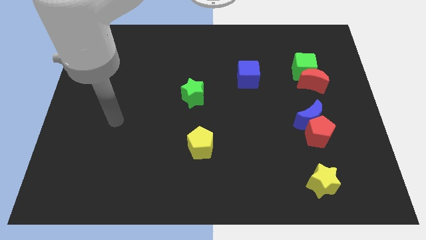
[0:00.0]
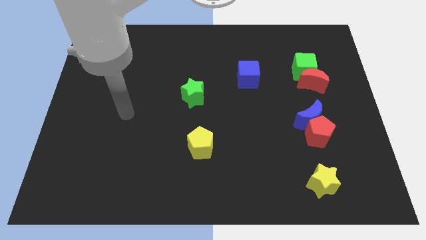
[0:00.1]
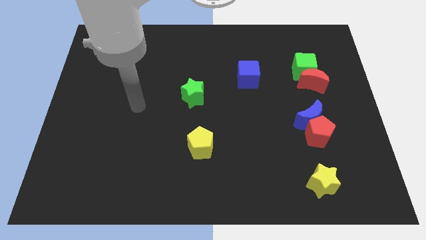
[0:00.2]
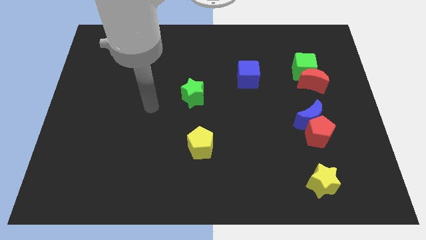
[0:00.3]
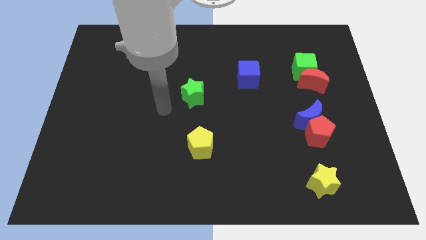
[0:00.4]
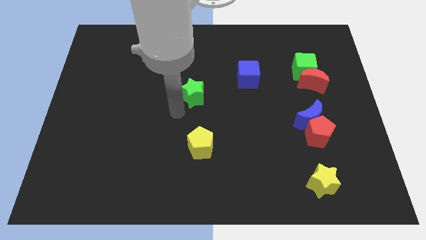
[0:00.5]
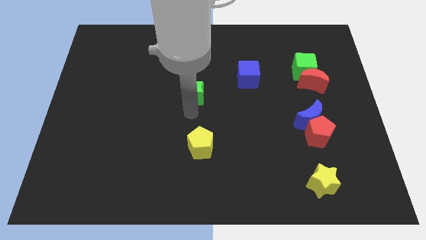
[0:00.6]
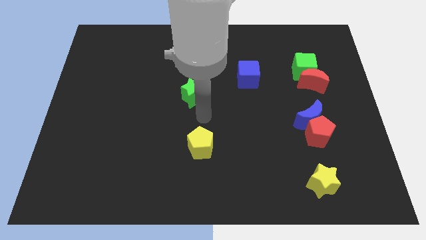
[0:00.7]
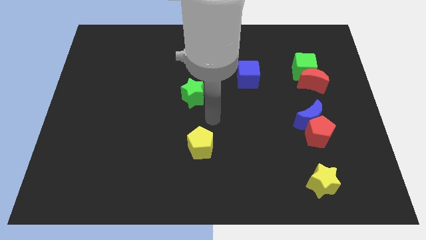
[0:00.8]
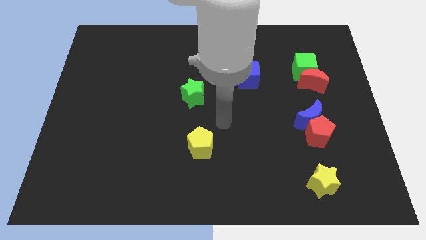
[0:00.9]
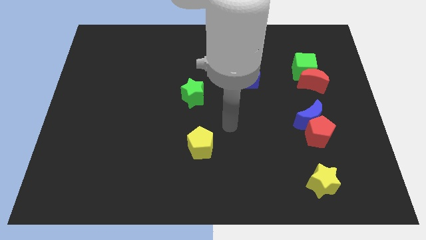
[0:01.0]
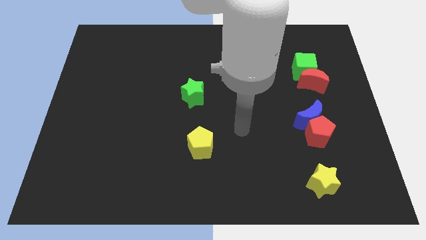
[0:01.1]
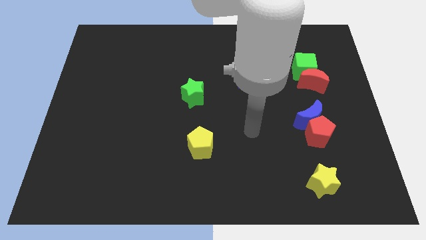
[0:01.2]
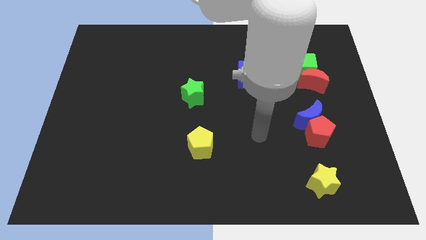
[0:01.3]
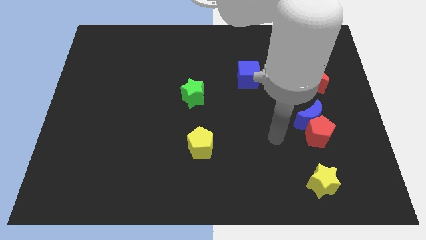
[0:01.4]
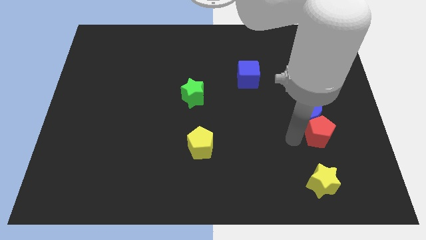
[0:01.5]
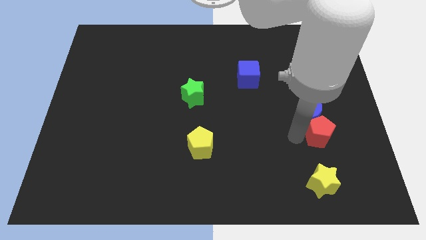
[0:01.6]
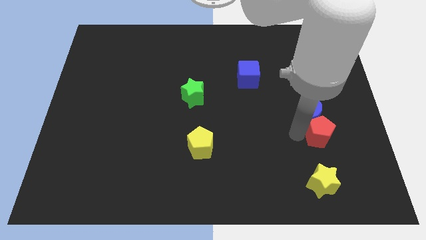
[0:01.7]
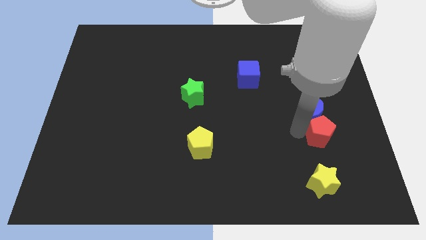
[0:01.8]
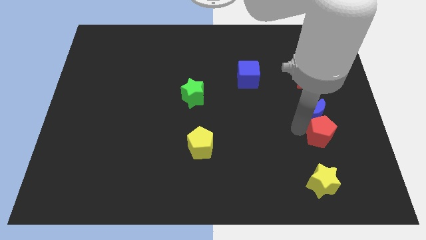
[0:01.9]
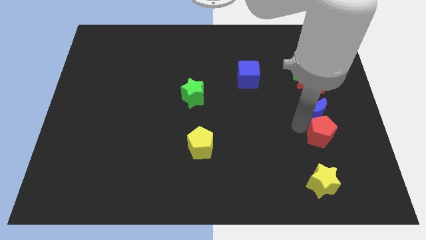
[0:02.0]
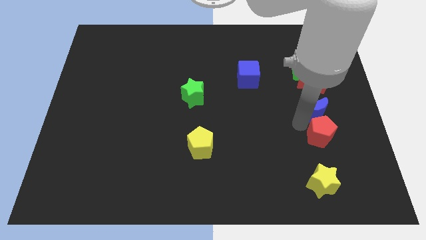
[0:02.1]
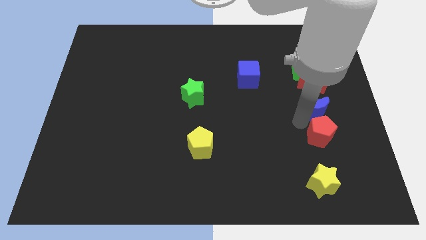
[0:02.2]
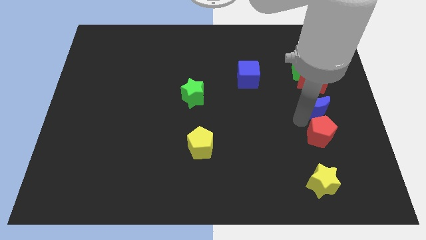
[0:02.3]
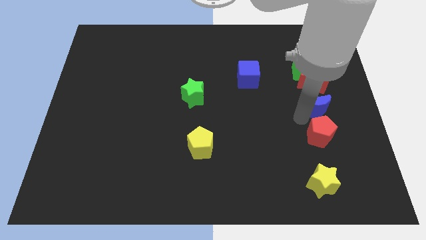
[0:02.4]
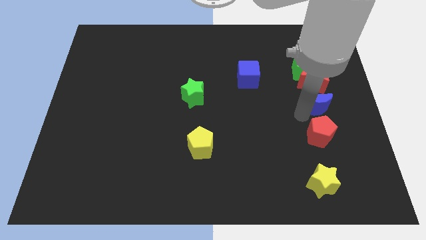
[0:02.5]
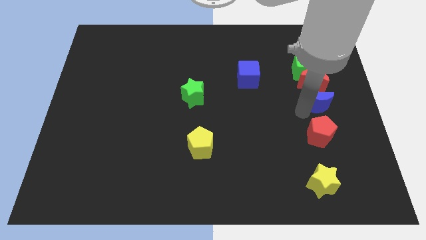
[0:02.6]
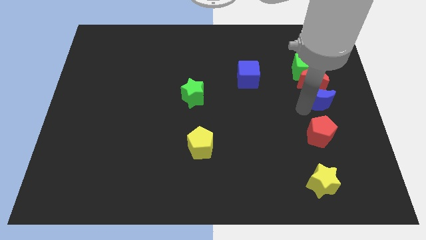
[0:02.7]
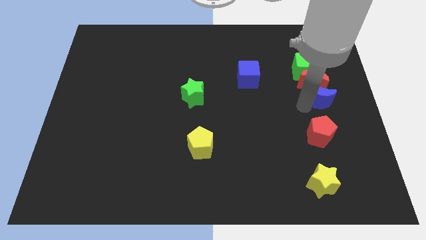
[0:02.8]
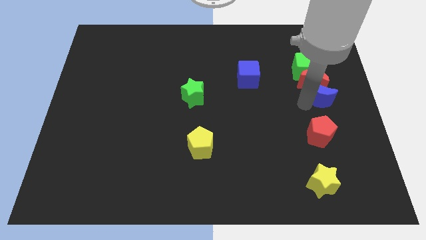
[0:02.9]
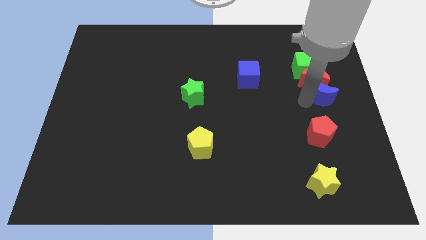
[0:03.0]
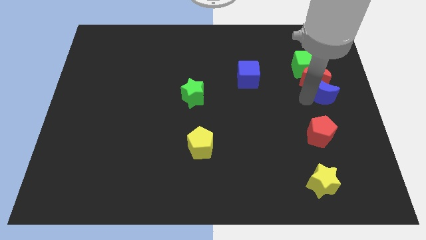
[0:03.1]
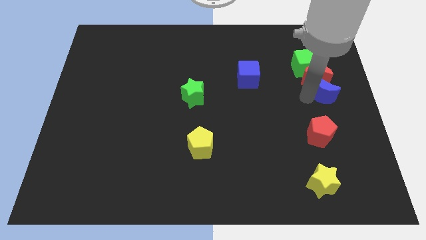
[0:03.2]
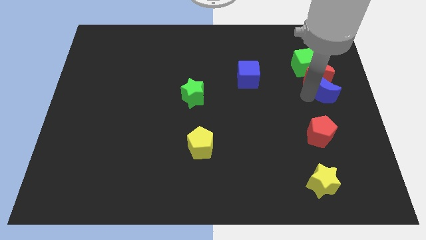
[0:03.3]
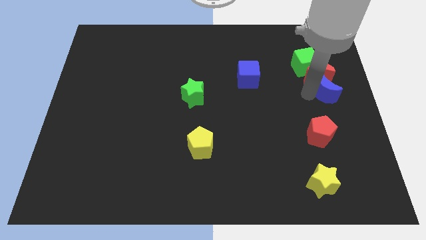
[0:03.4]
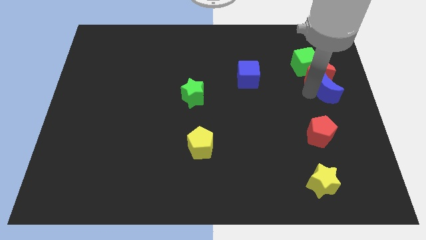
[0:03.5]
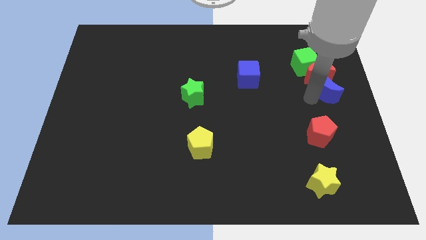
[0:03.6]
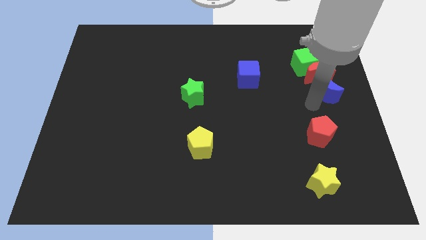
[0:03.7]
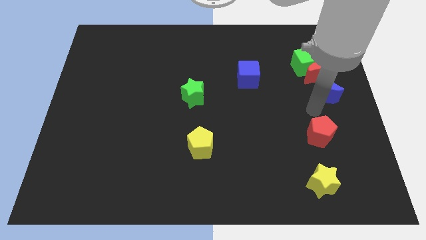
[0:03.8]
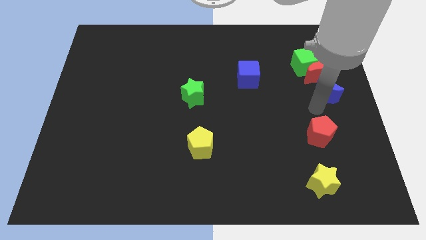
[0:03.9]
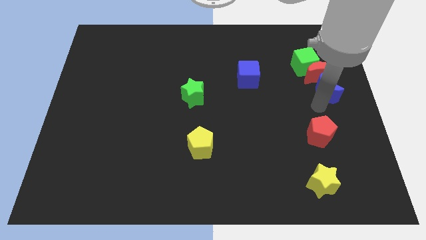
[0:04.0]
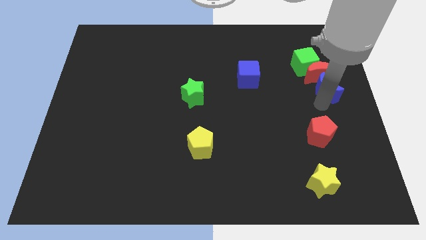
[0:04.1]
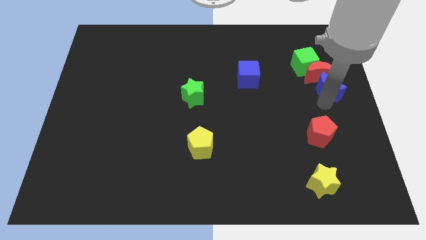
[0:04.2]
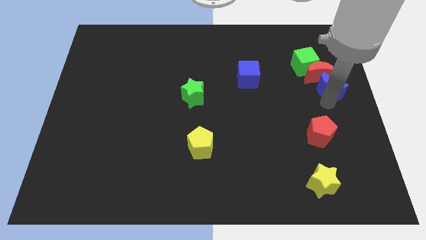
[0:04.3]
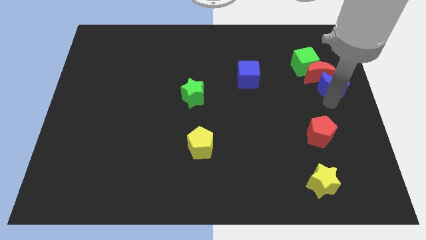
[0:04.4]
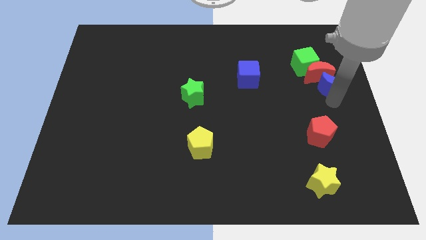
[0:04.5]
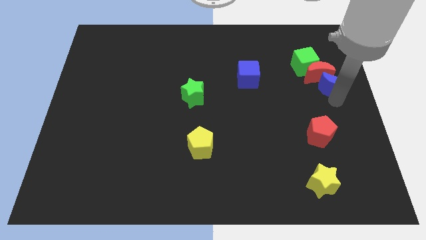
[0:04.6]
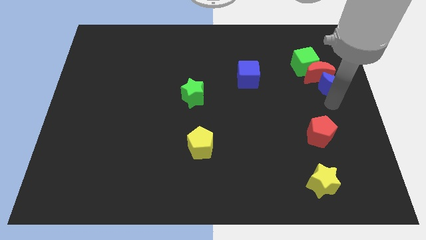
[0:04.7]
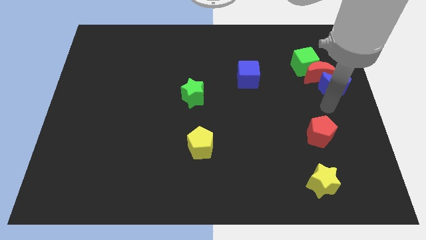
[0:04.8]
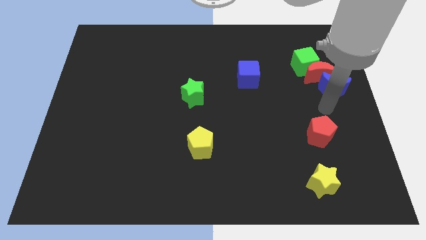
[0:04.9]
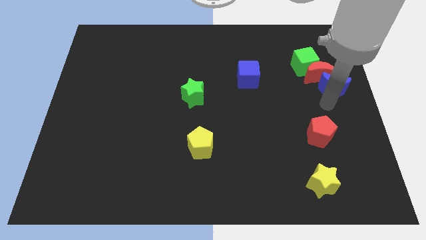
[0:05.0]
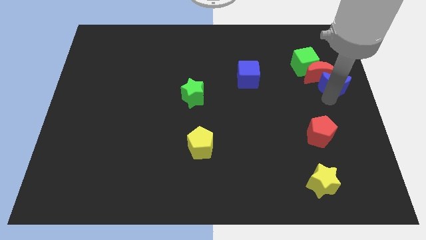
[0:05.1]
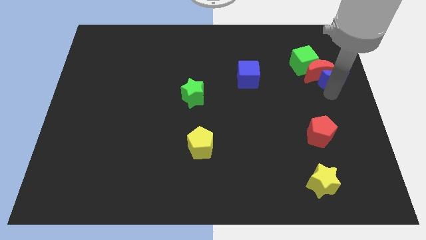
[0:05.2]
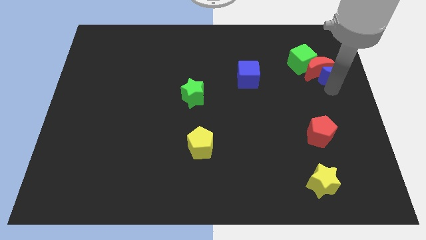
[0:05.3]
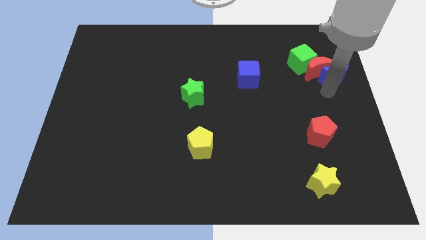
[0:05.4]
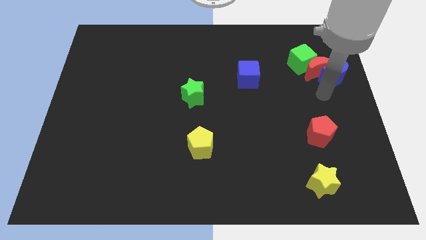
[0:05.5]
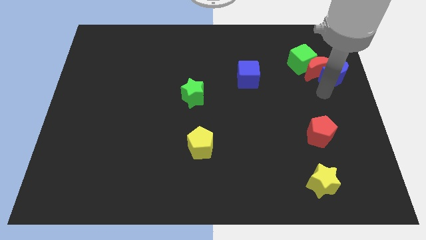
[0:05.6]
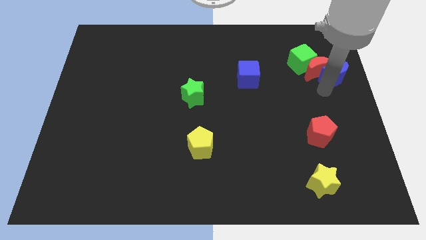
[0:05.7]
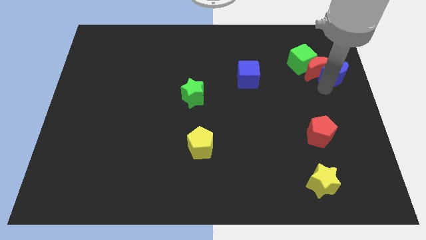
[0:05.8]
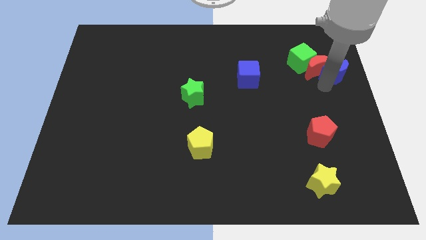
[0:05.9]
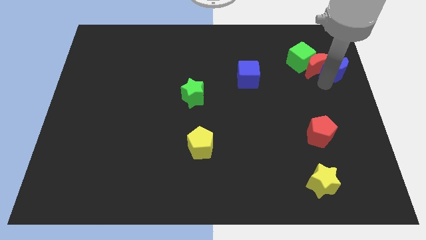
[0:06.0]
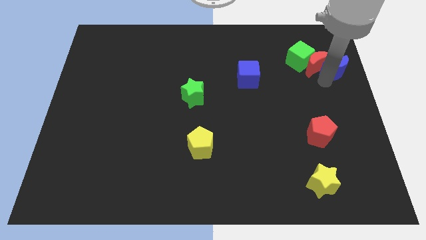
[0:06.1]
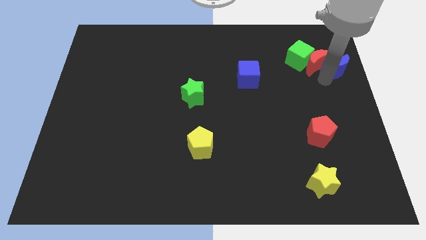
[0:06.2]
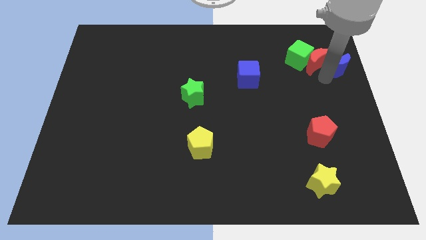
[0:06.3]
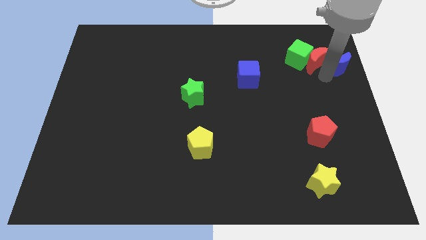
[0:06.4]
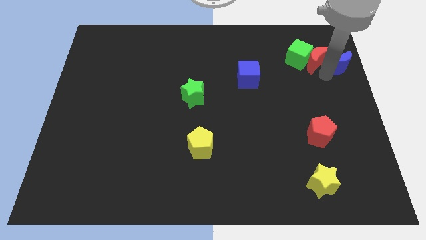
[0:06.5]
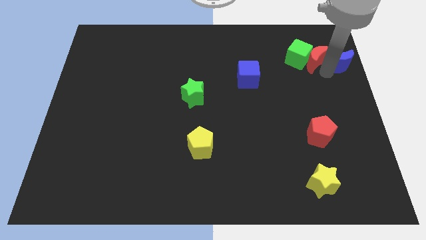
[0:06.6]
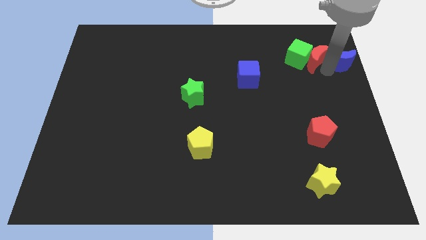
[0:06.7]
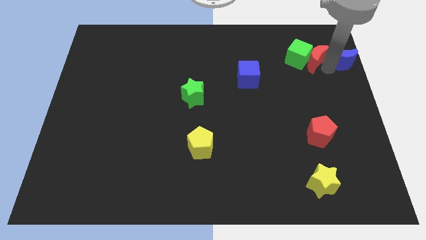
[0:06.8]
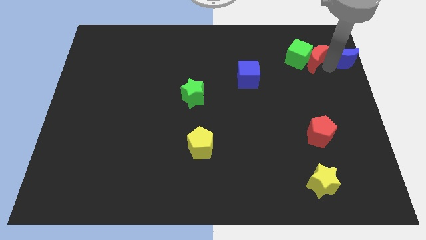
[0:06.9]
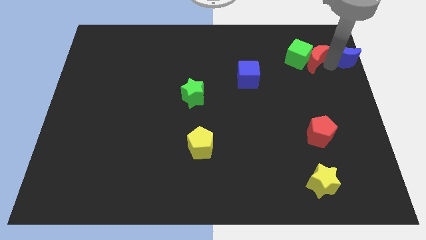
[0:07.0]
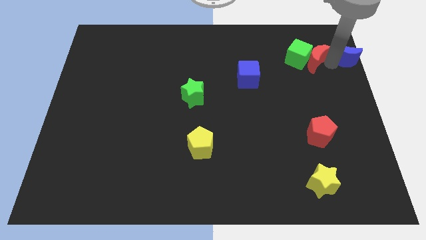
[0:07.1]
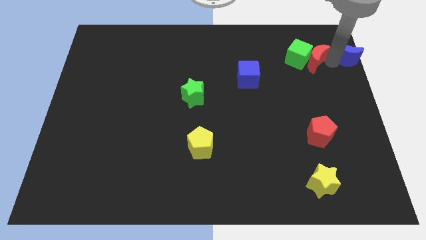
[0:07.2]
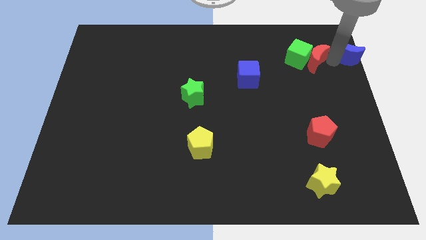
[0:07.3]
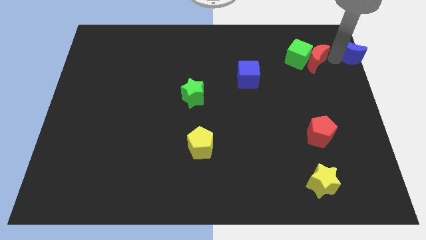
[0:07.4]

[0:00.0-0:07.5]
move the blue moon to the top right of the board
